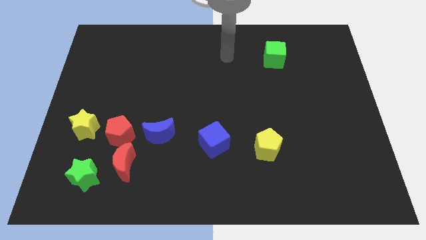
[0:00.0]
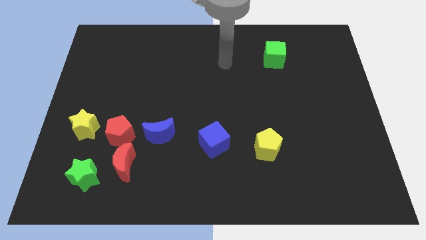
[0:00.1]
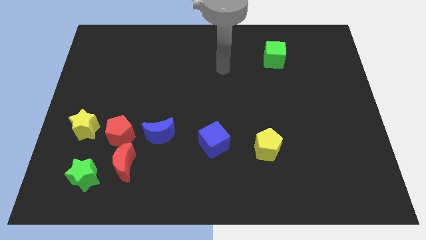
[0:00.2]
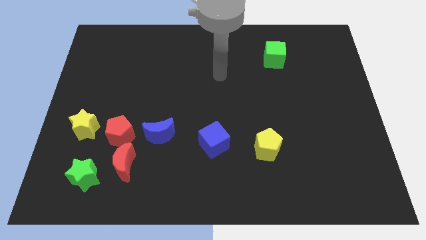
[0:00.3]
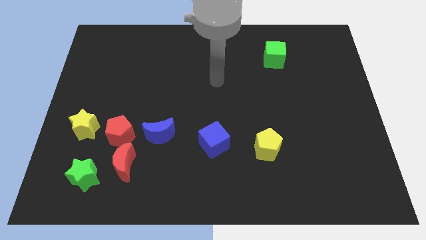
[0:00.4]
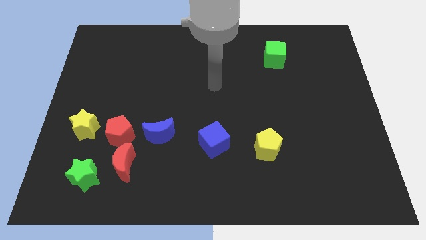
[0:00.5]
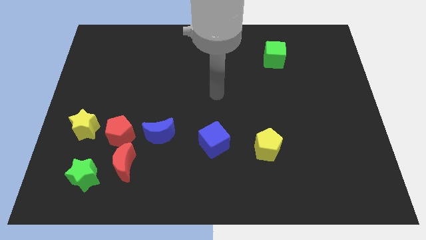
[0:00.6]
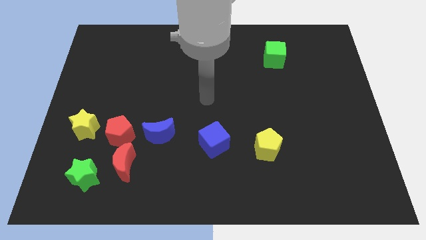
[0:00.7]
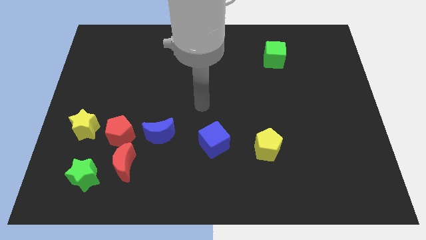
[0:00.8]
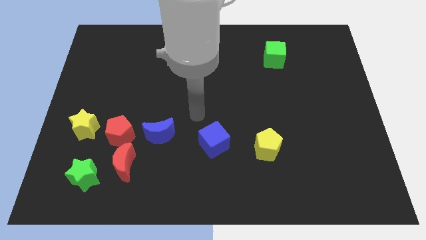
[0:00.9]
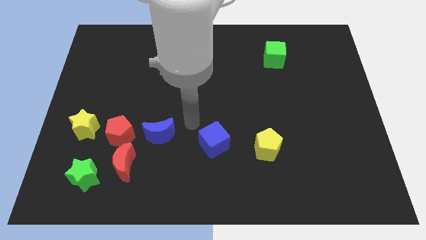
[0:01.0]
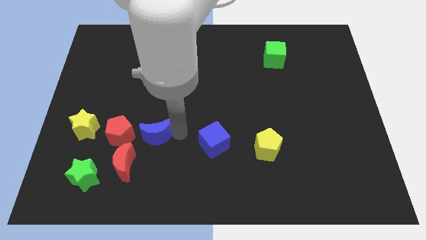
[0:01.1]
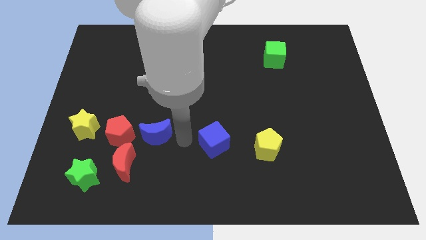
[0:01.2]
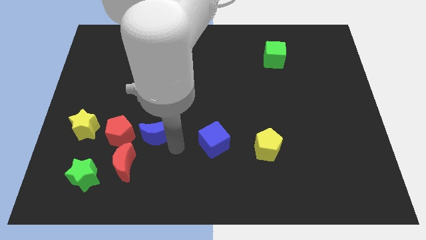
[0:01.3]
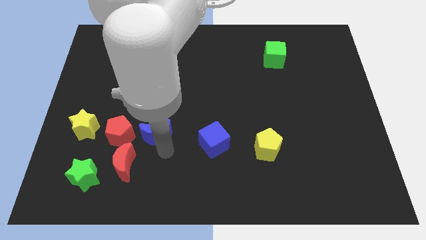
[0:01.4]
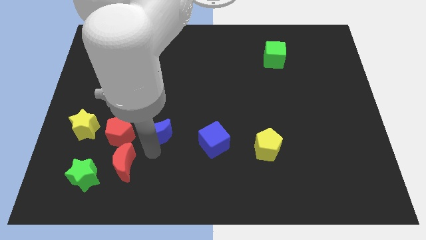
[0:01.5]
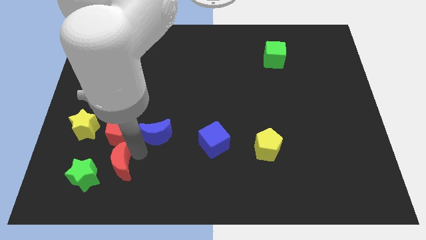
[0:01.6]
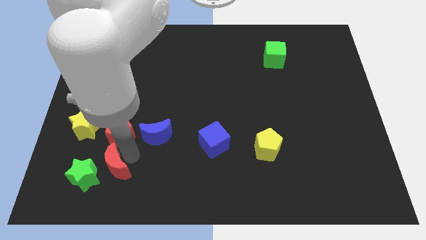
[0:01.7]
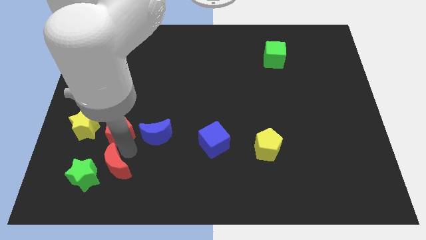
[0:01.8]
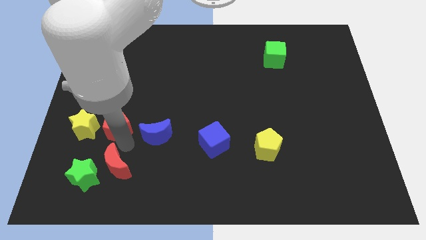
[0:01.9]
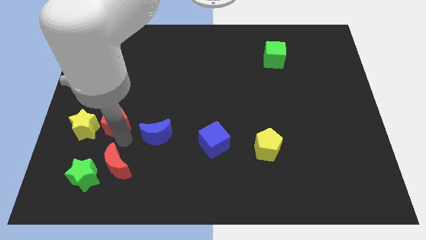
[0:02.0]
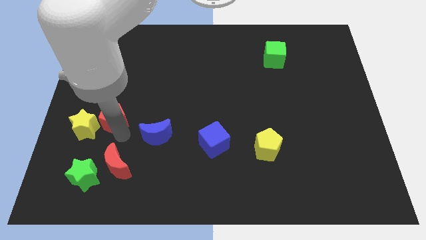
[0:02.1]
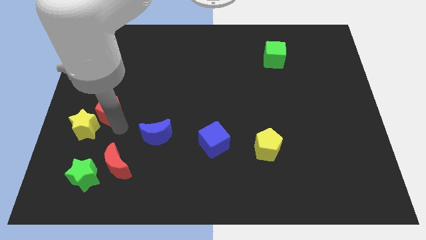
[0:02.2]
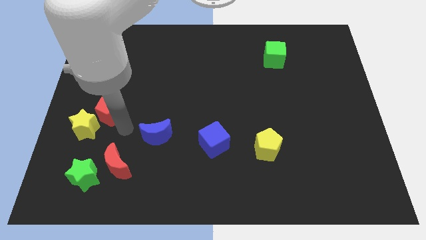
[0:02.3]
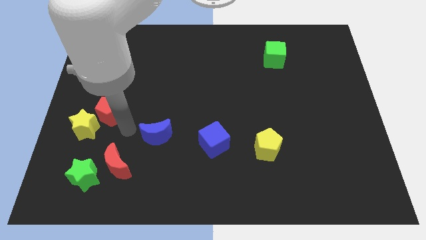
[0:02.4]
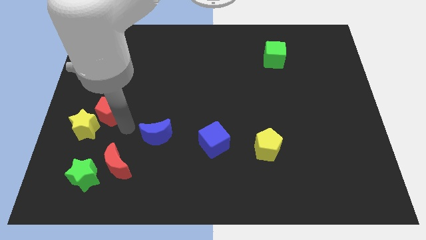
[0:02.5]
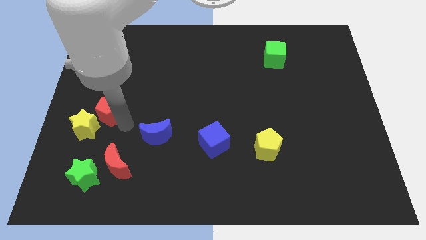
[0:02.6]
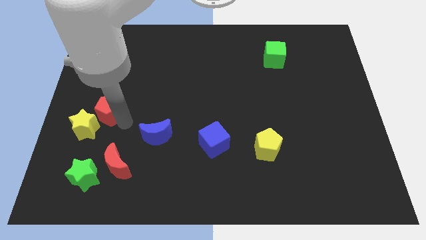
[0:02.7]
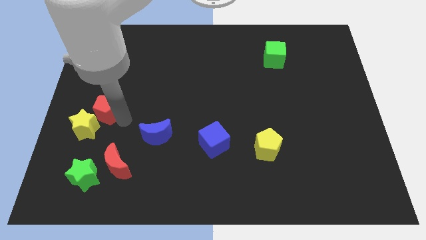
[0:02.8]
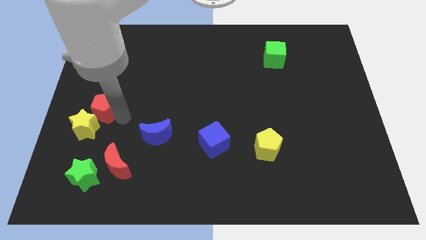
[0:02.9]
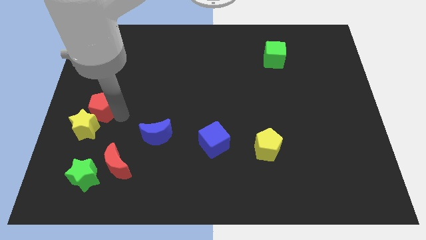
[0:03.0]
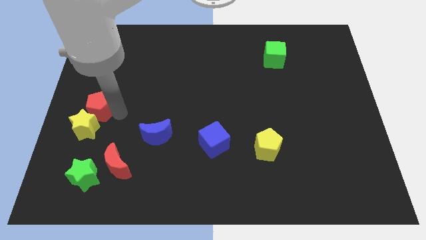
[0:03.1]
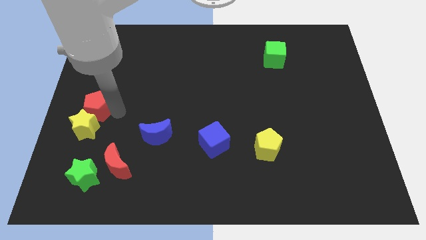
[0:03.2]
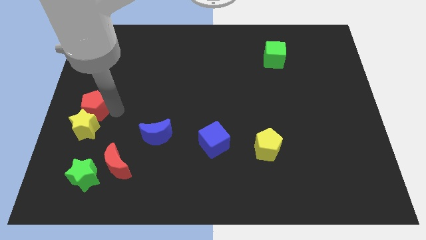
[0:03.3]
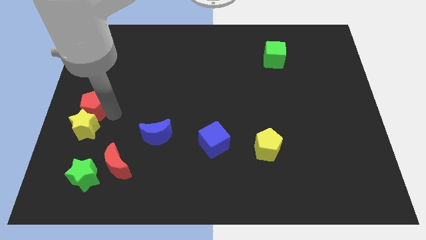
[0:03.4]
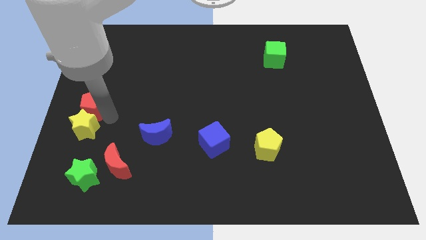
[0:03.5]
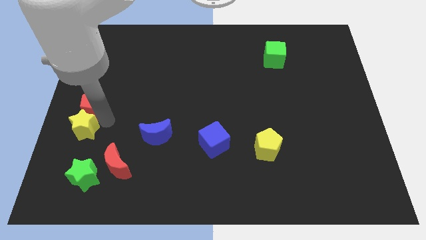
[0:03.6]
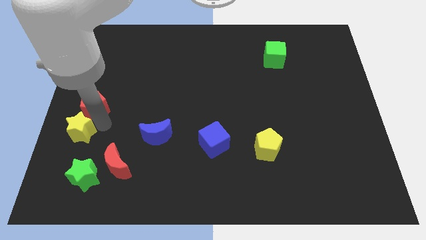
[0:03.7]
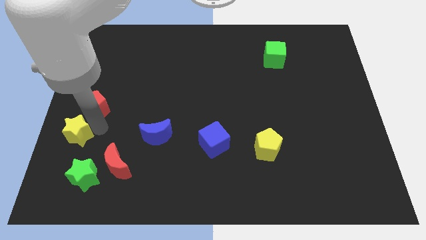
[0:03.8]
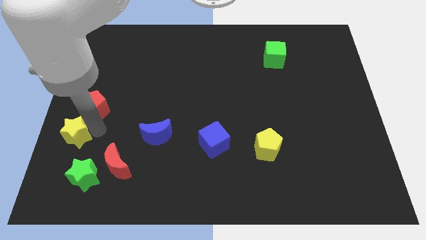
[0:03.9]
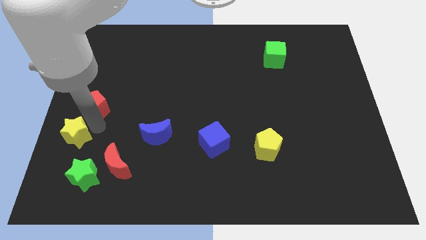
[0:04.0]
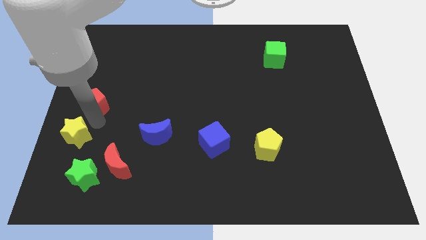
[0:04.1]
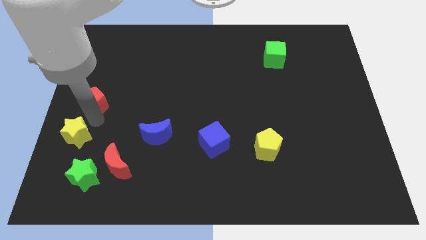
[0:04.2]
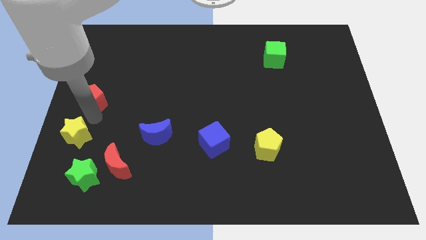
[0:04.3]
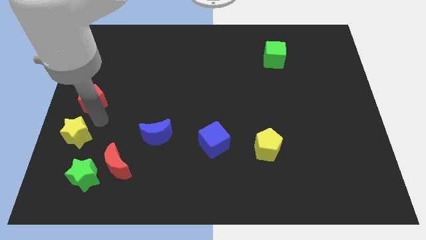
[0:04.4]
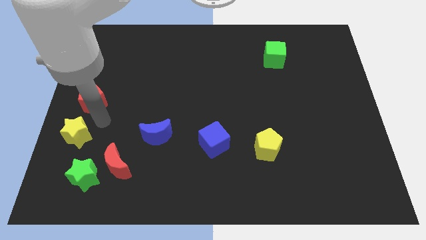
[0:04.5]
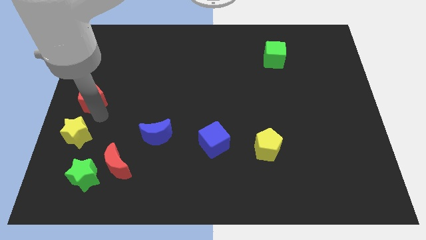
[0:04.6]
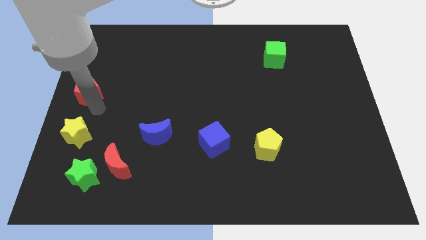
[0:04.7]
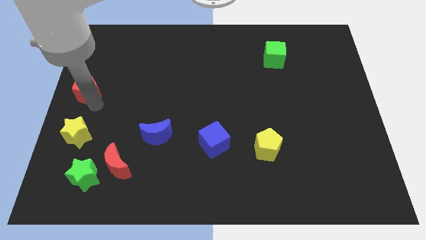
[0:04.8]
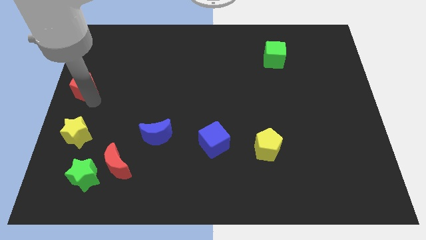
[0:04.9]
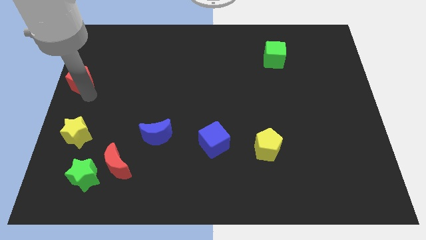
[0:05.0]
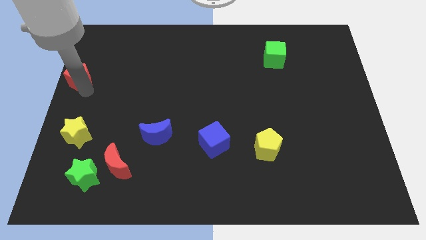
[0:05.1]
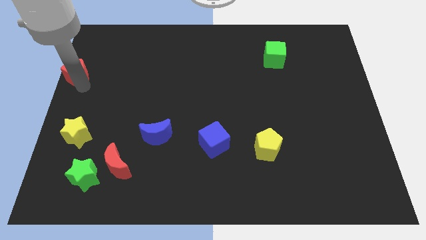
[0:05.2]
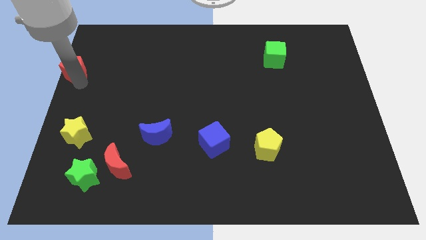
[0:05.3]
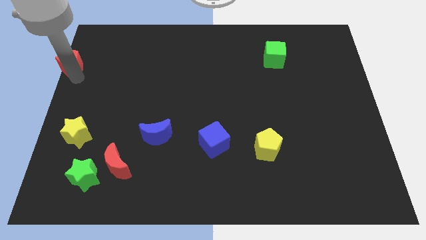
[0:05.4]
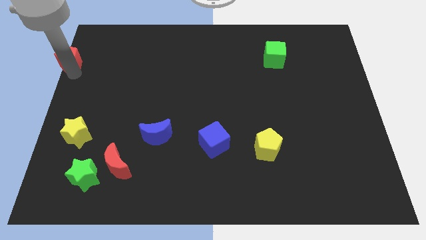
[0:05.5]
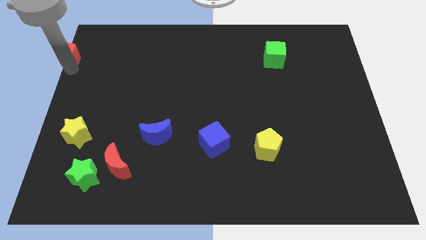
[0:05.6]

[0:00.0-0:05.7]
slide the red pentagon to the top left corner

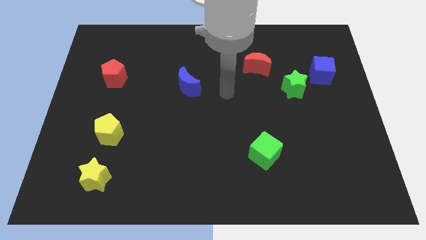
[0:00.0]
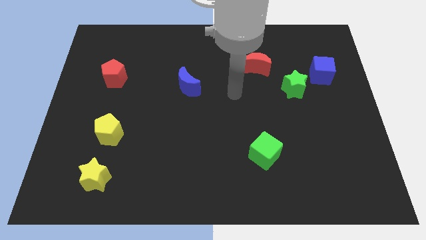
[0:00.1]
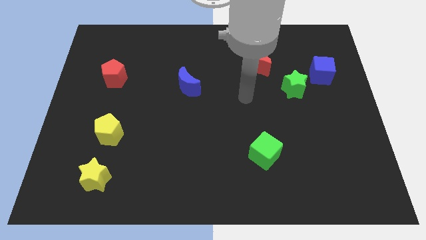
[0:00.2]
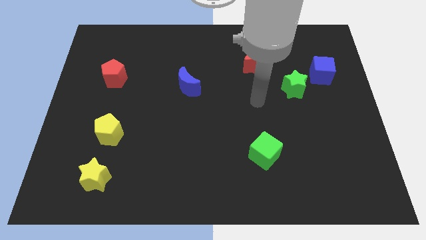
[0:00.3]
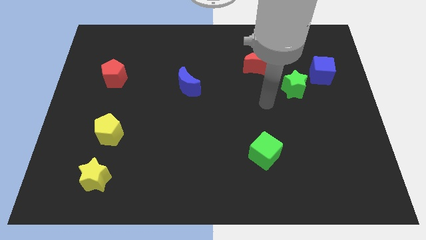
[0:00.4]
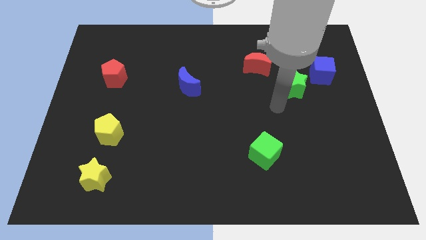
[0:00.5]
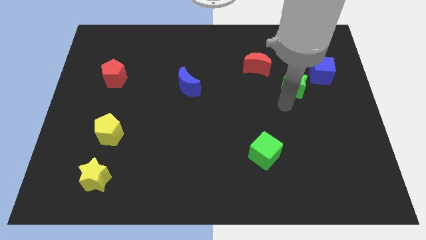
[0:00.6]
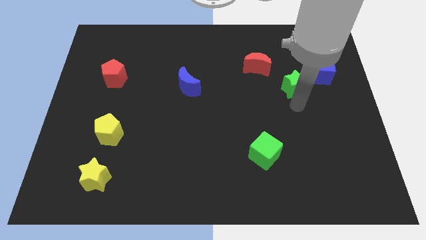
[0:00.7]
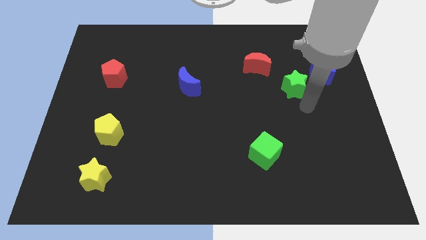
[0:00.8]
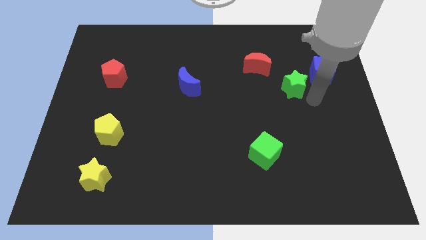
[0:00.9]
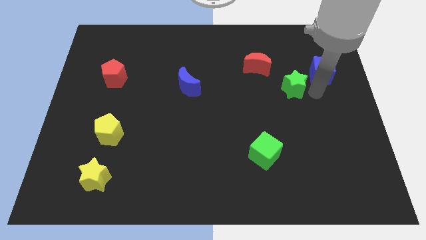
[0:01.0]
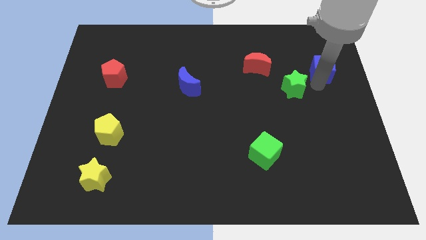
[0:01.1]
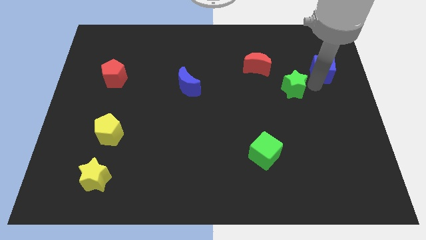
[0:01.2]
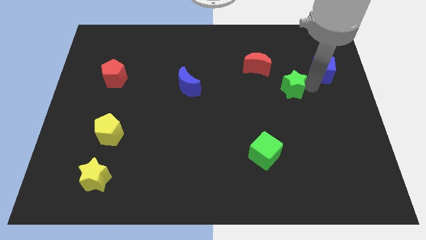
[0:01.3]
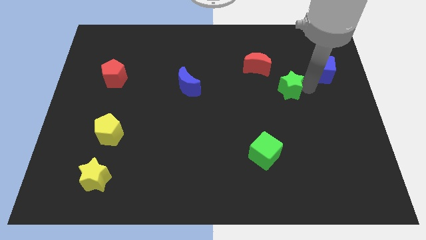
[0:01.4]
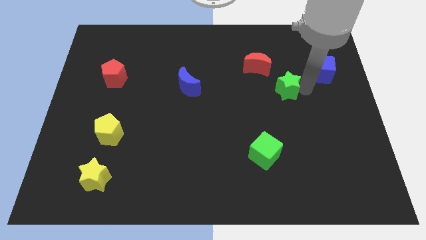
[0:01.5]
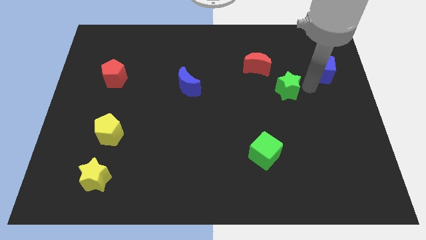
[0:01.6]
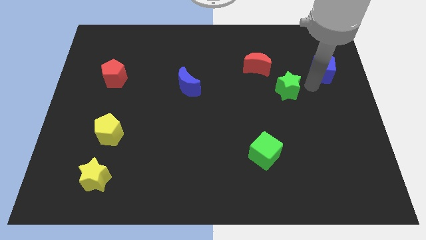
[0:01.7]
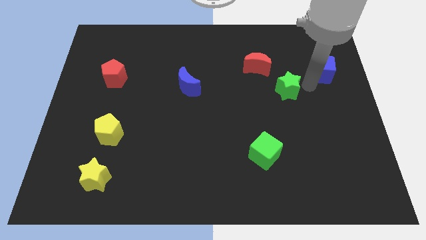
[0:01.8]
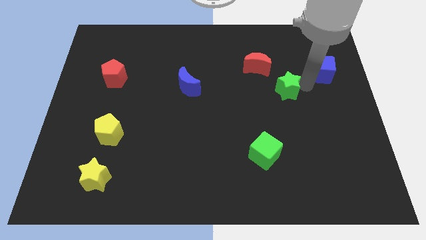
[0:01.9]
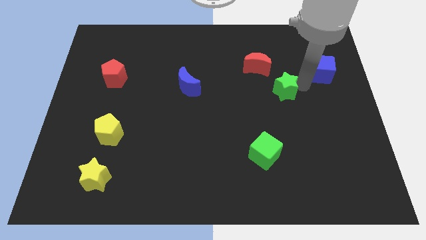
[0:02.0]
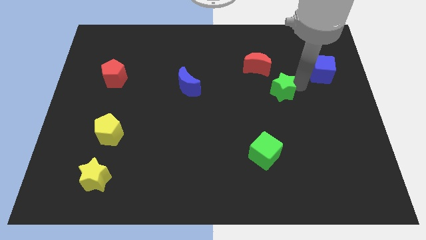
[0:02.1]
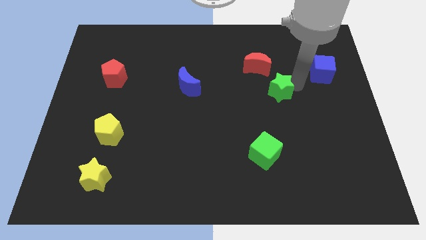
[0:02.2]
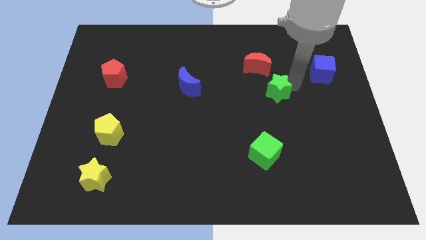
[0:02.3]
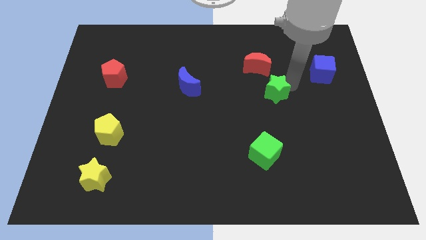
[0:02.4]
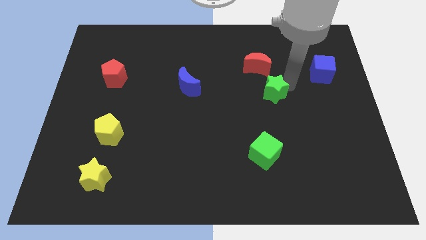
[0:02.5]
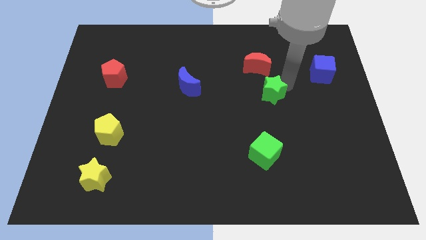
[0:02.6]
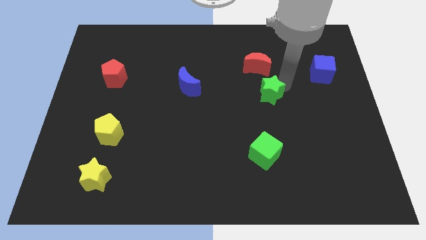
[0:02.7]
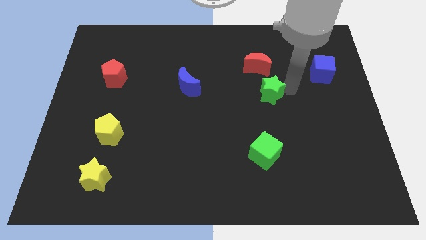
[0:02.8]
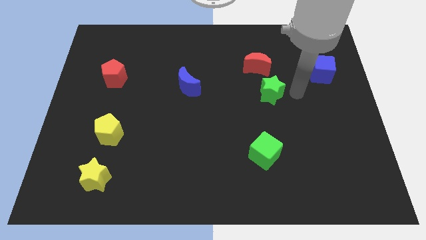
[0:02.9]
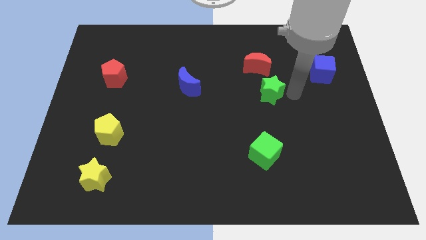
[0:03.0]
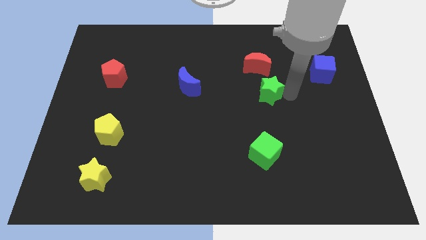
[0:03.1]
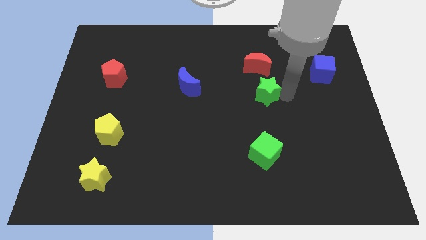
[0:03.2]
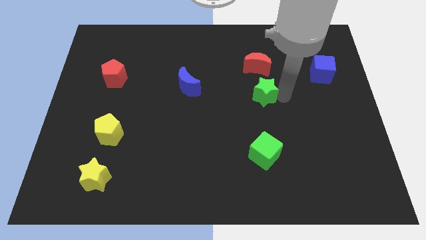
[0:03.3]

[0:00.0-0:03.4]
push the green star to the middle of the board
